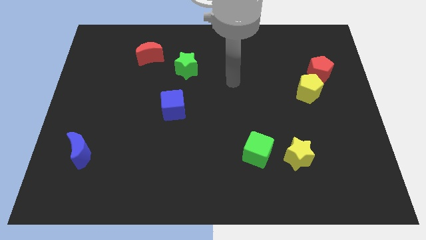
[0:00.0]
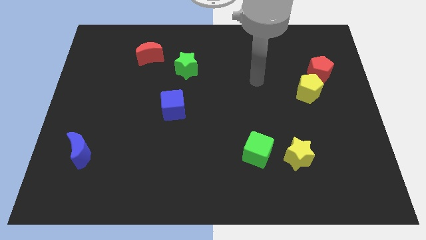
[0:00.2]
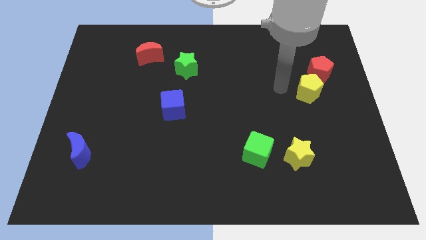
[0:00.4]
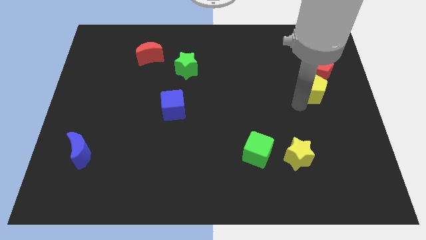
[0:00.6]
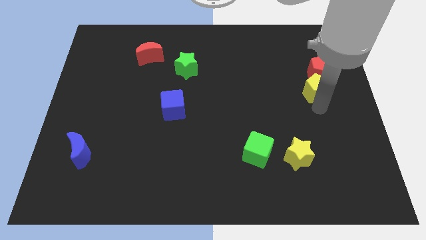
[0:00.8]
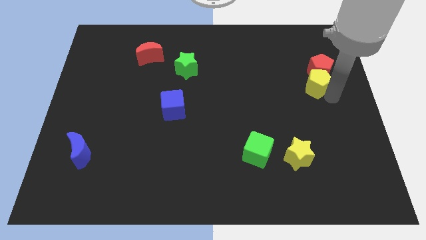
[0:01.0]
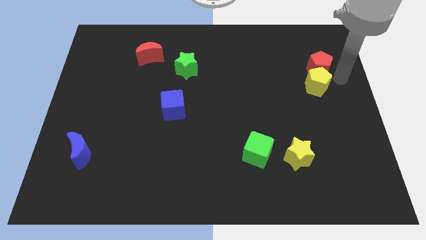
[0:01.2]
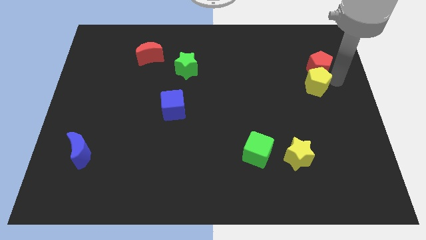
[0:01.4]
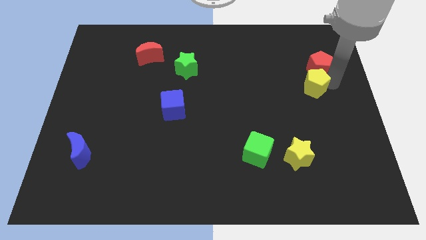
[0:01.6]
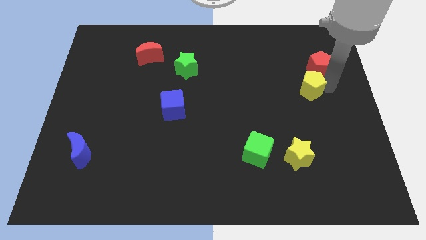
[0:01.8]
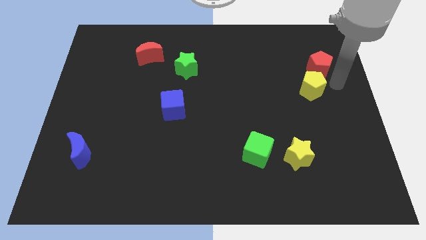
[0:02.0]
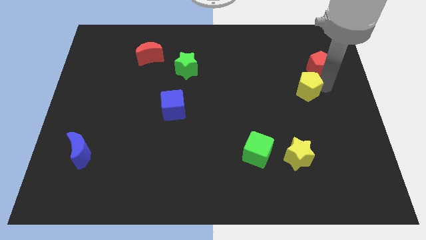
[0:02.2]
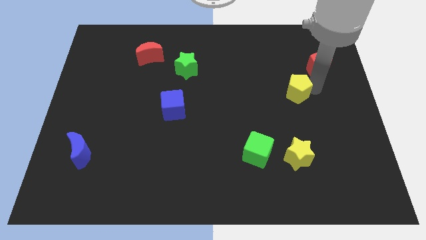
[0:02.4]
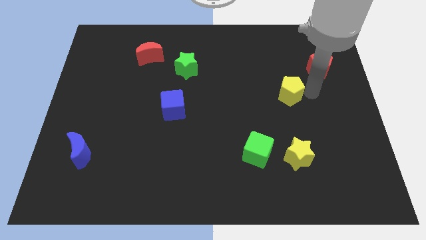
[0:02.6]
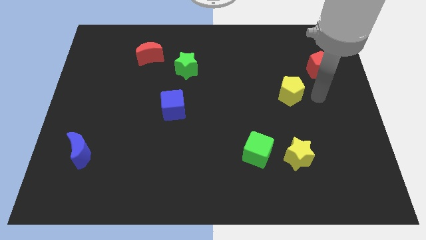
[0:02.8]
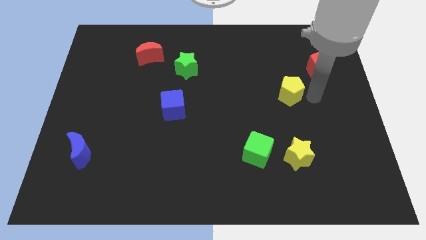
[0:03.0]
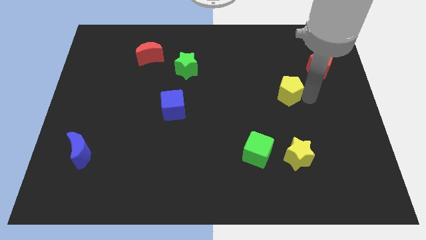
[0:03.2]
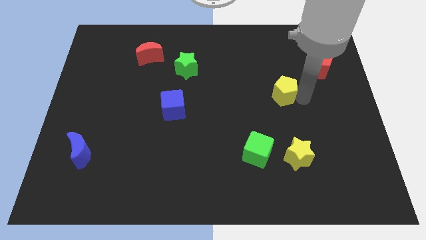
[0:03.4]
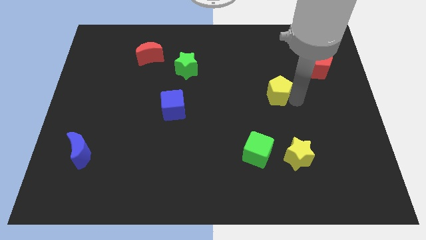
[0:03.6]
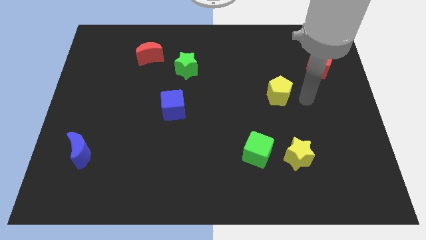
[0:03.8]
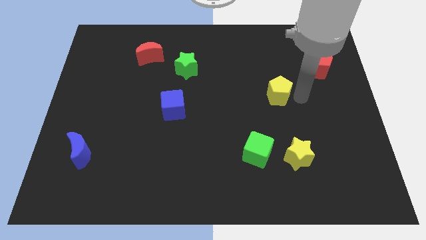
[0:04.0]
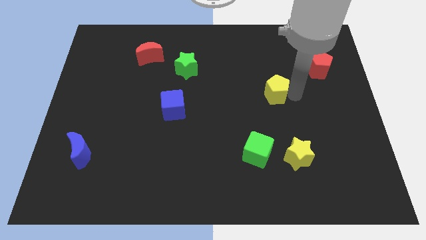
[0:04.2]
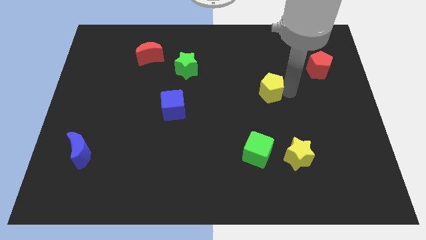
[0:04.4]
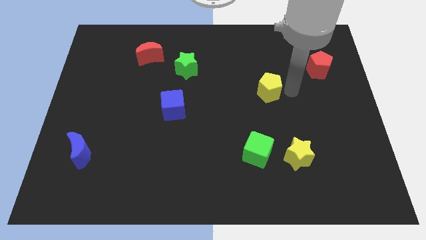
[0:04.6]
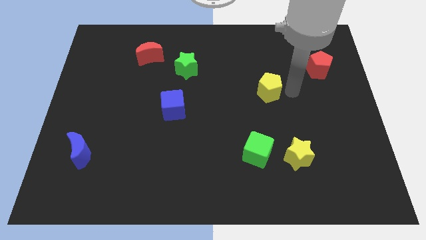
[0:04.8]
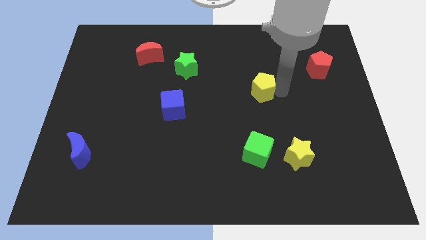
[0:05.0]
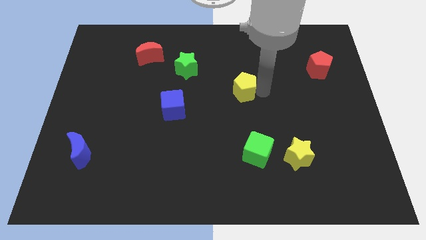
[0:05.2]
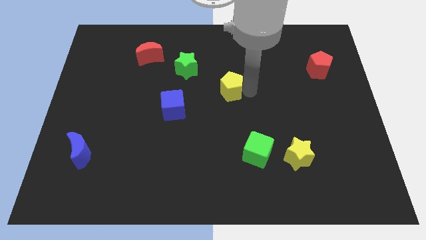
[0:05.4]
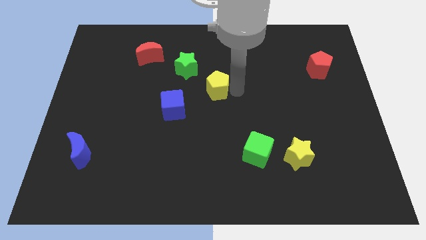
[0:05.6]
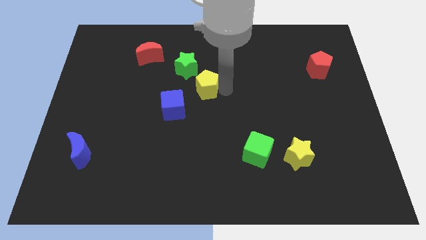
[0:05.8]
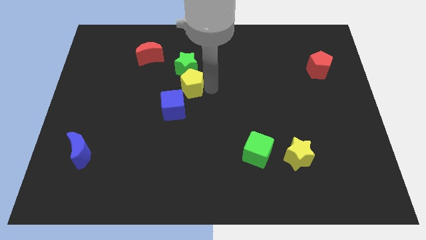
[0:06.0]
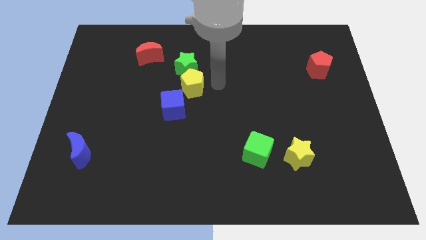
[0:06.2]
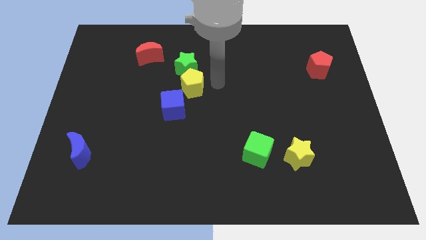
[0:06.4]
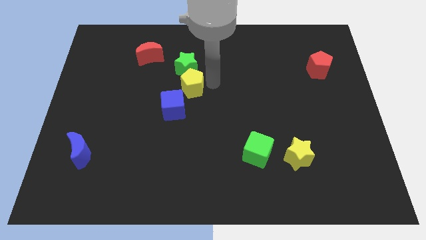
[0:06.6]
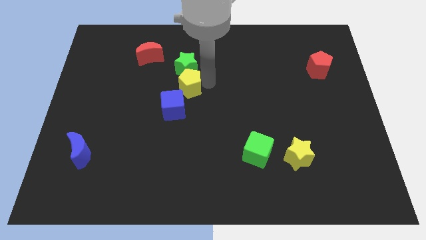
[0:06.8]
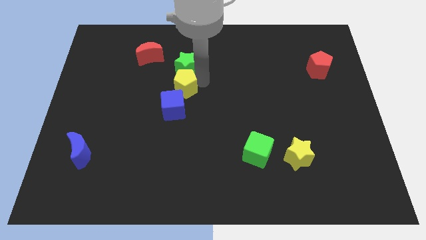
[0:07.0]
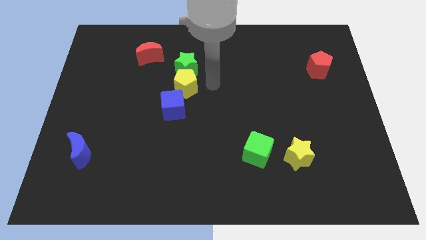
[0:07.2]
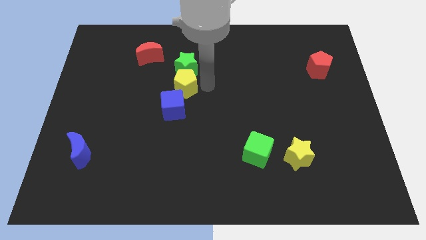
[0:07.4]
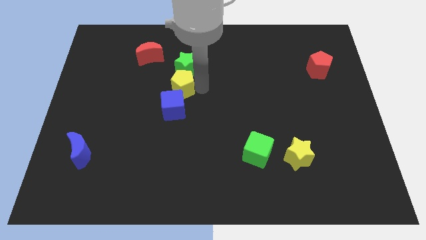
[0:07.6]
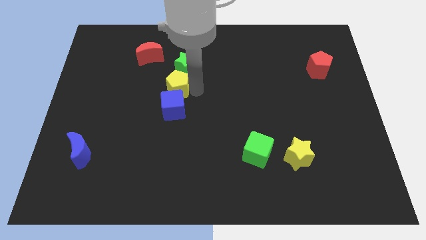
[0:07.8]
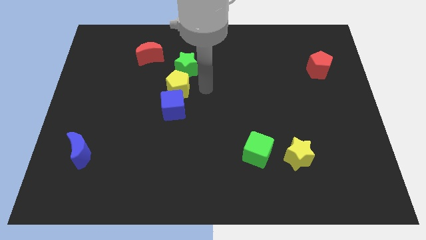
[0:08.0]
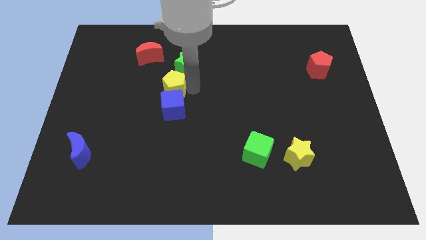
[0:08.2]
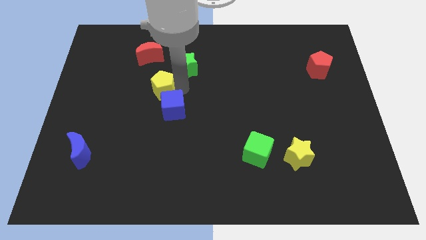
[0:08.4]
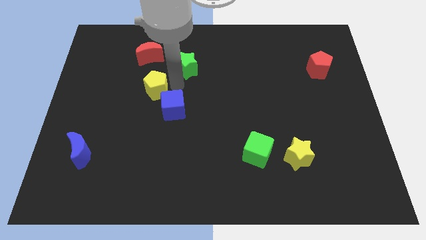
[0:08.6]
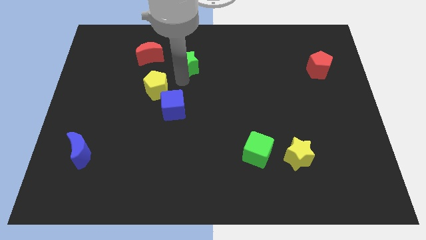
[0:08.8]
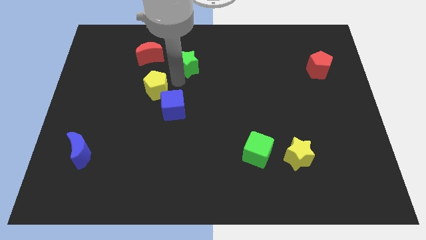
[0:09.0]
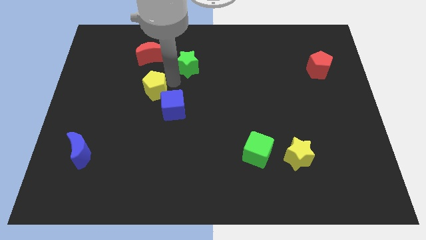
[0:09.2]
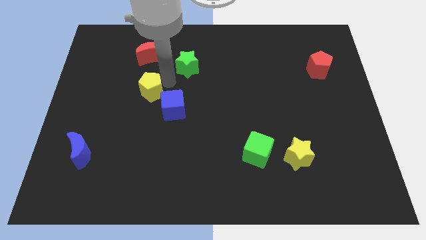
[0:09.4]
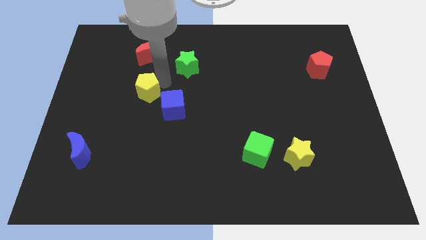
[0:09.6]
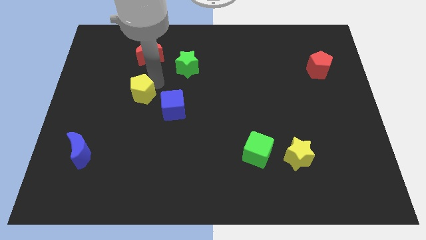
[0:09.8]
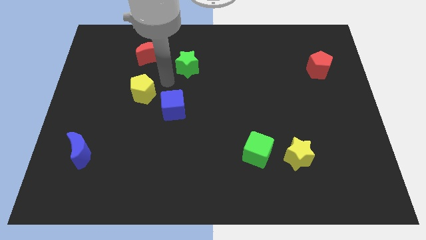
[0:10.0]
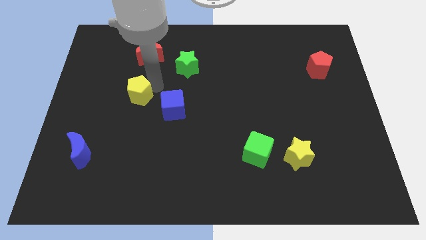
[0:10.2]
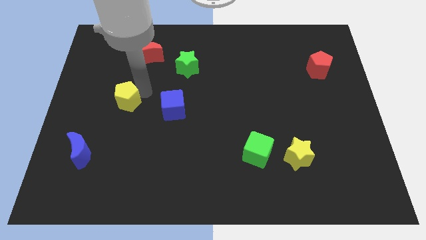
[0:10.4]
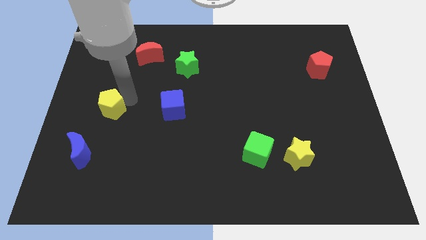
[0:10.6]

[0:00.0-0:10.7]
slide the yellow pentagon to the top of the blue moon

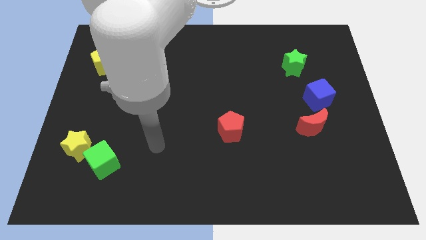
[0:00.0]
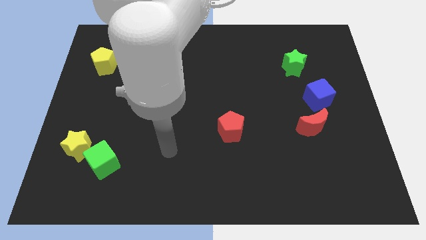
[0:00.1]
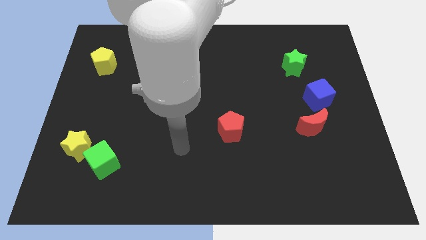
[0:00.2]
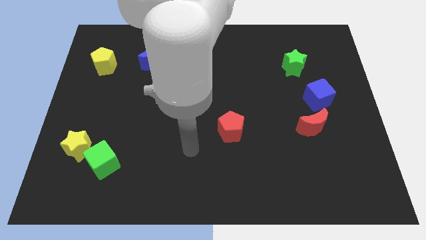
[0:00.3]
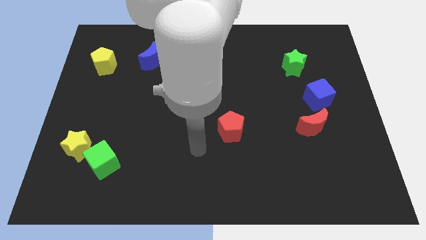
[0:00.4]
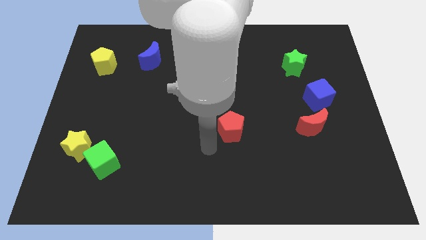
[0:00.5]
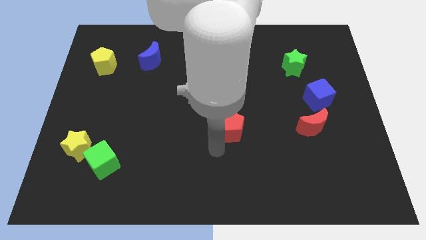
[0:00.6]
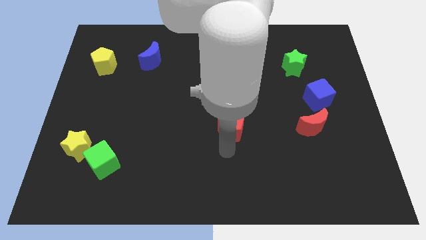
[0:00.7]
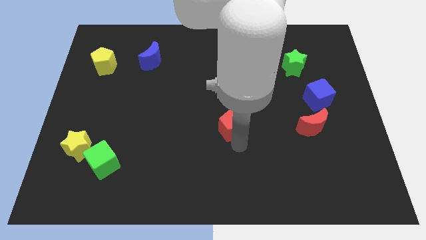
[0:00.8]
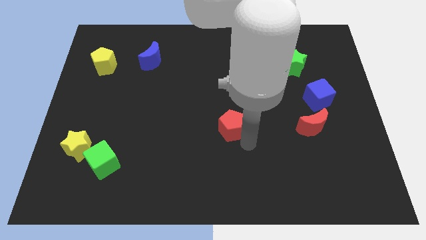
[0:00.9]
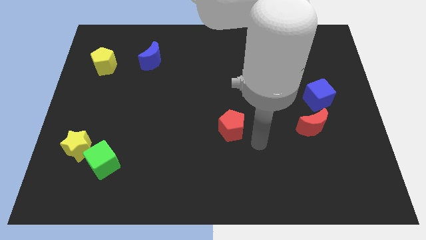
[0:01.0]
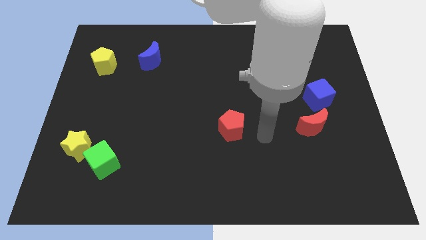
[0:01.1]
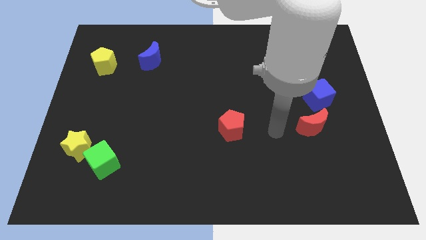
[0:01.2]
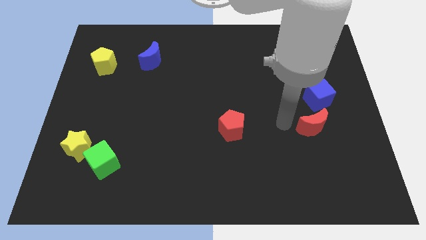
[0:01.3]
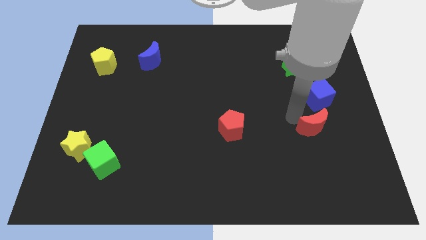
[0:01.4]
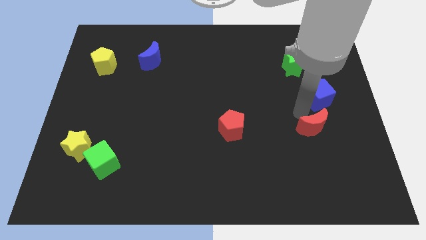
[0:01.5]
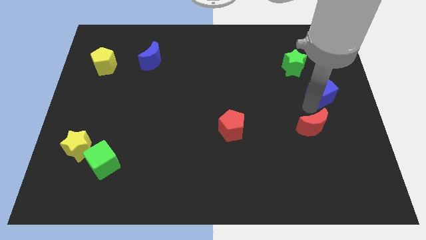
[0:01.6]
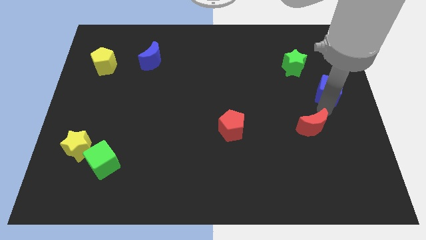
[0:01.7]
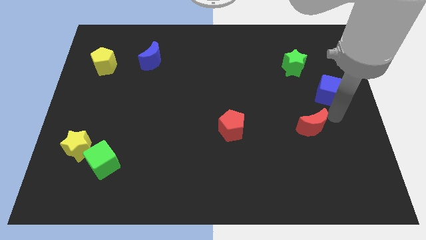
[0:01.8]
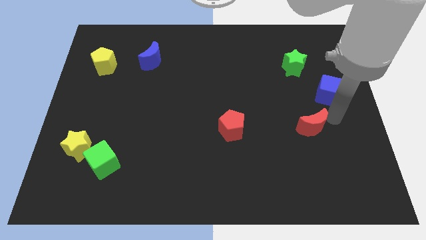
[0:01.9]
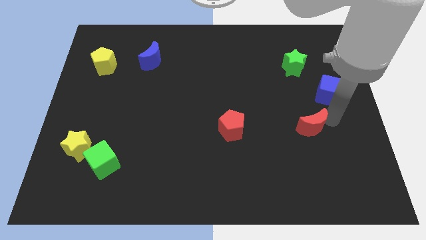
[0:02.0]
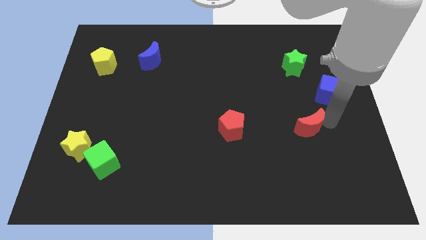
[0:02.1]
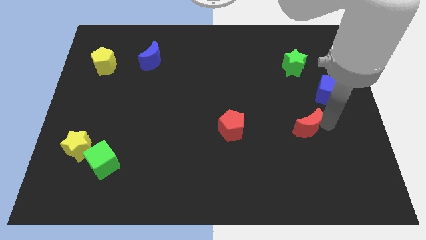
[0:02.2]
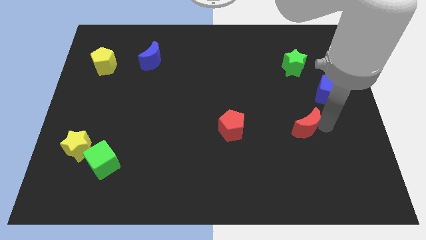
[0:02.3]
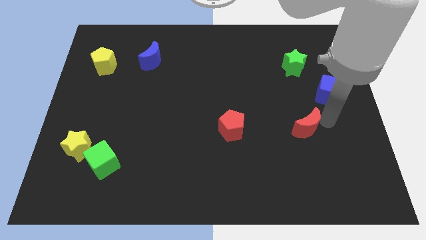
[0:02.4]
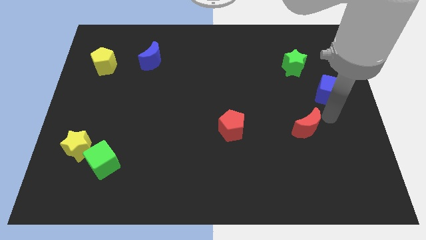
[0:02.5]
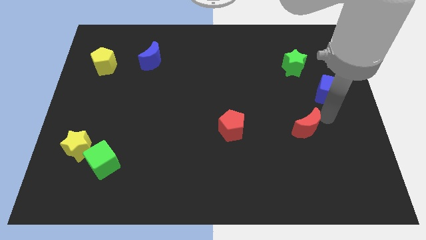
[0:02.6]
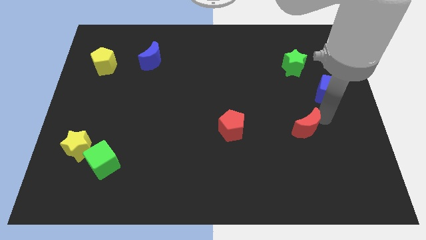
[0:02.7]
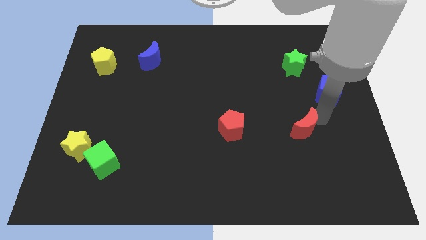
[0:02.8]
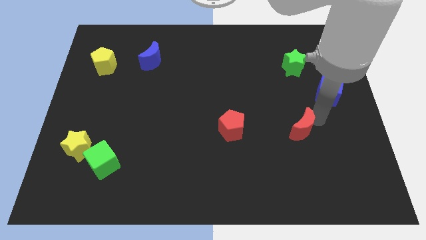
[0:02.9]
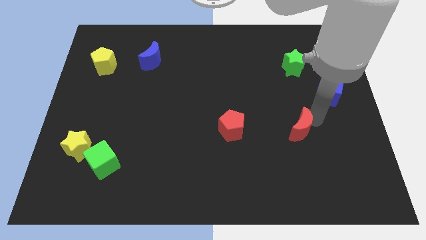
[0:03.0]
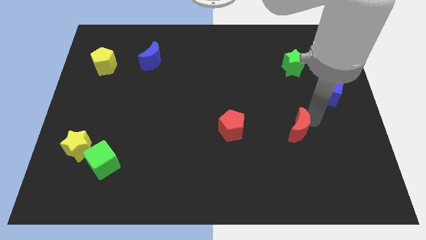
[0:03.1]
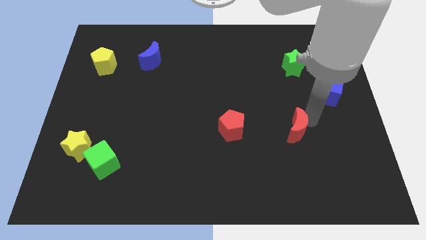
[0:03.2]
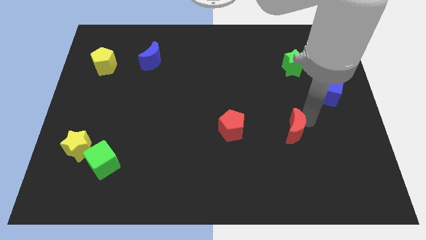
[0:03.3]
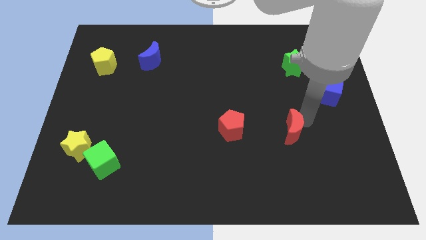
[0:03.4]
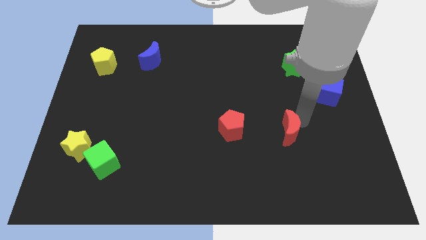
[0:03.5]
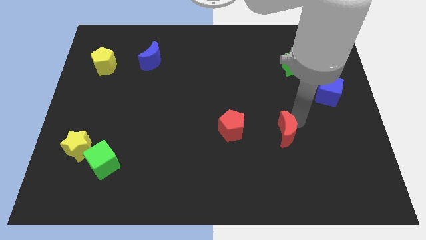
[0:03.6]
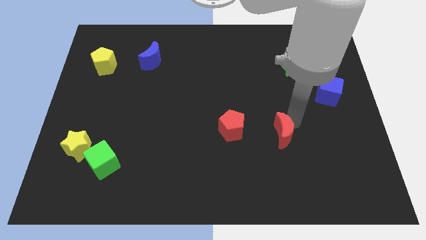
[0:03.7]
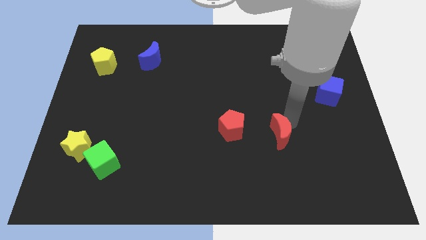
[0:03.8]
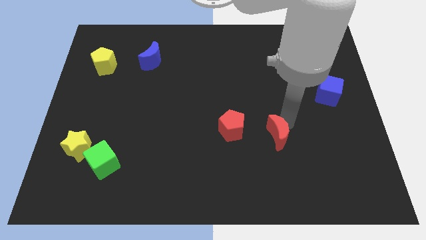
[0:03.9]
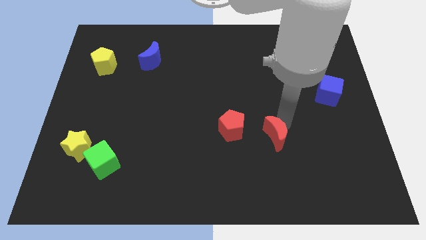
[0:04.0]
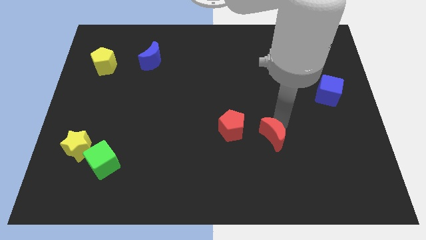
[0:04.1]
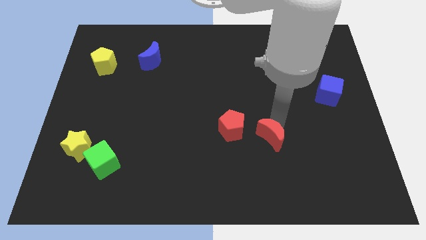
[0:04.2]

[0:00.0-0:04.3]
move the red moon diagonally down and to the right of the red pentagon
